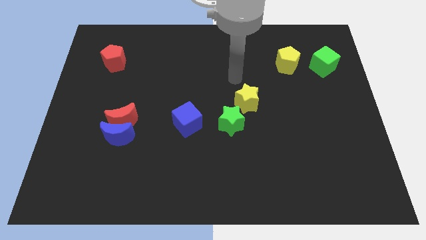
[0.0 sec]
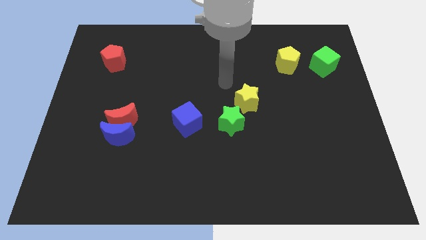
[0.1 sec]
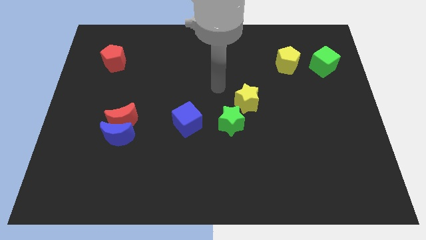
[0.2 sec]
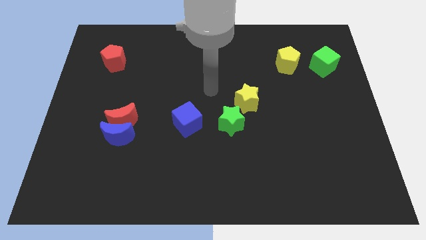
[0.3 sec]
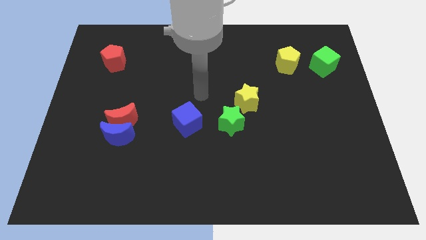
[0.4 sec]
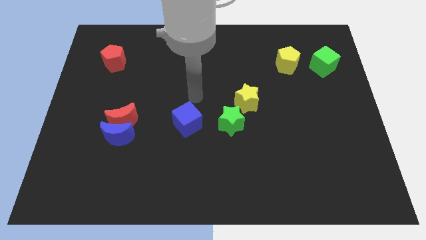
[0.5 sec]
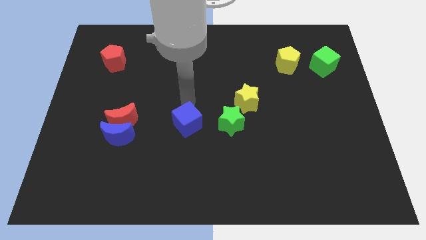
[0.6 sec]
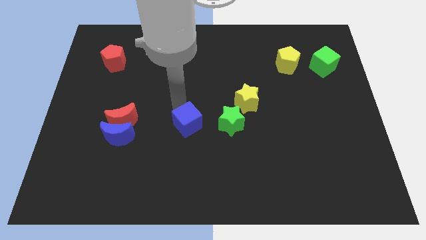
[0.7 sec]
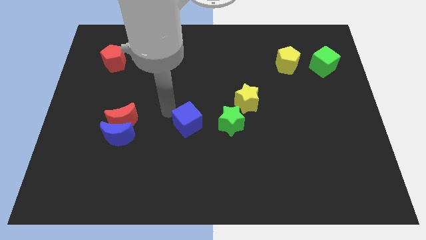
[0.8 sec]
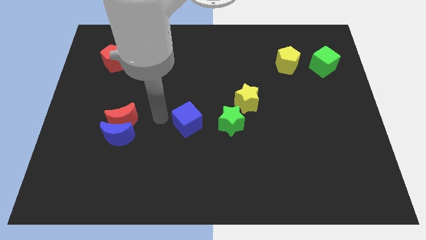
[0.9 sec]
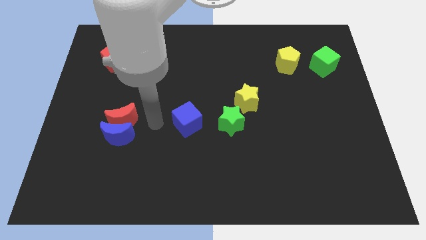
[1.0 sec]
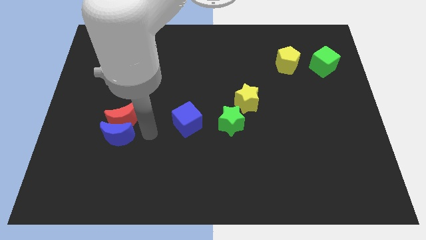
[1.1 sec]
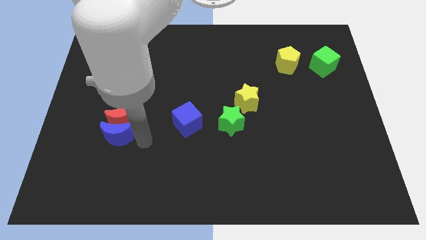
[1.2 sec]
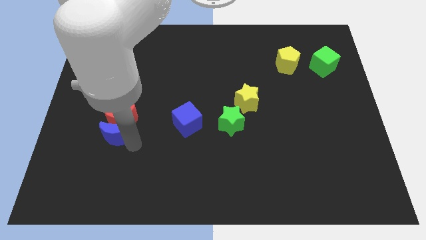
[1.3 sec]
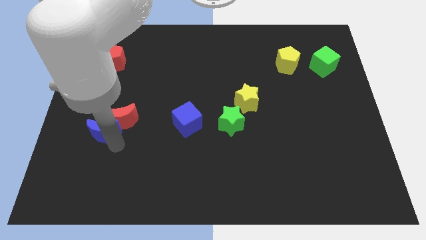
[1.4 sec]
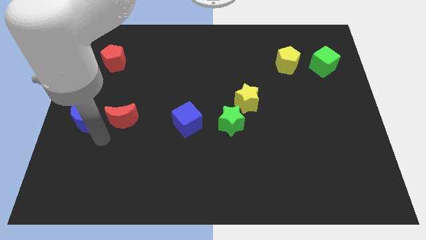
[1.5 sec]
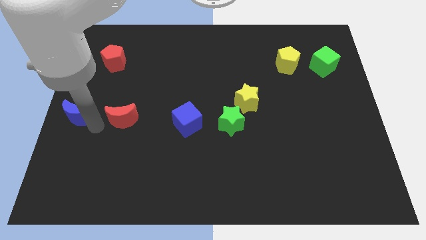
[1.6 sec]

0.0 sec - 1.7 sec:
move the red moon away from the blue moon

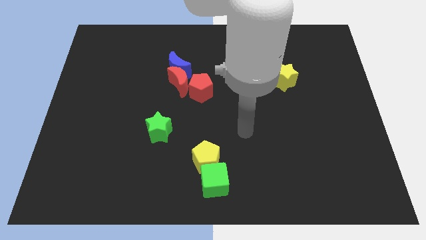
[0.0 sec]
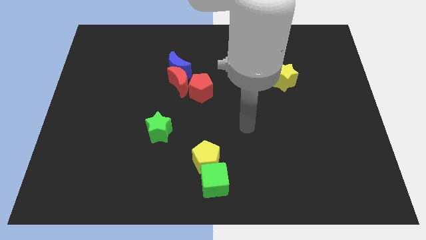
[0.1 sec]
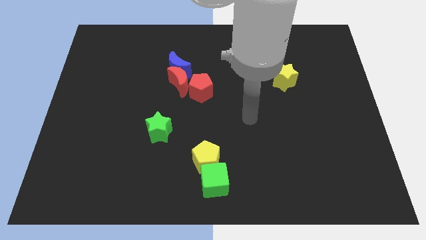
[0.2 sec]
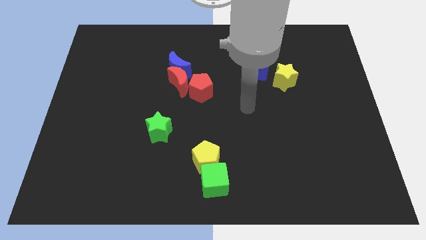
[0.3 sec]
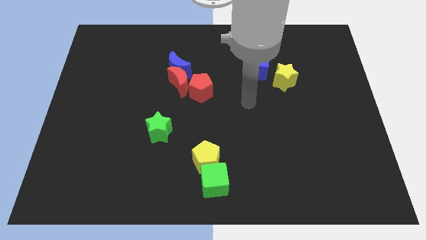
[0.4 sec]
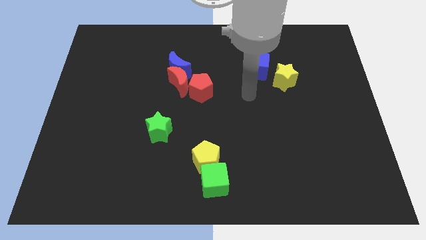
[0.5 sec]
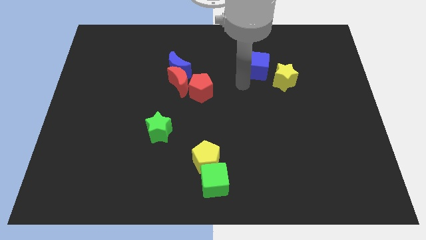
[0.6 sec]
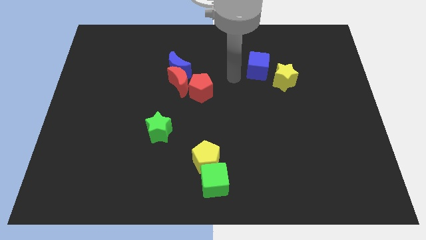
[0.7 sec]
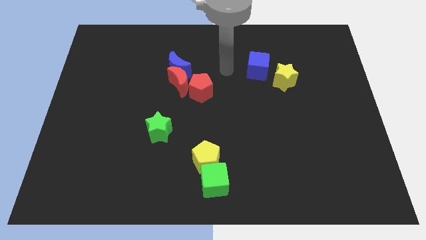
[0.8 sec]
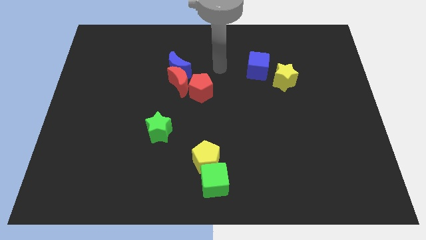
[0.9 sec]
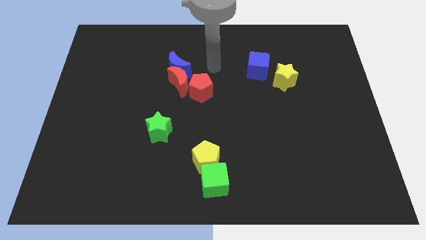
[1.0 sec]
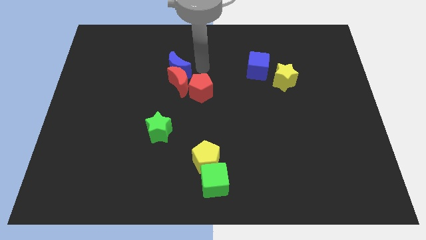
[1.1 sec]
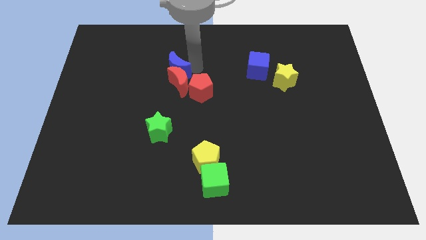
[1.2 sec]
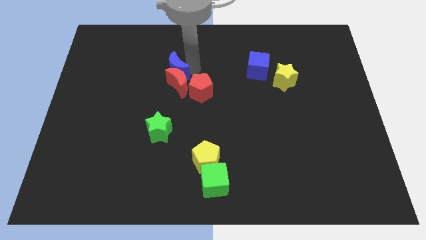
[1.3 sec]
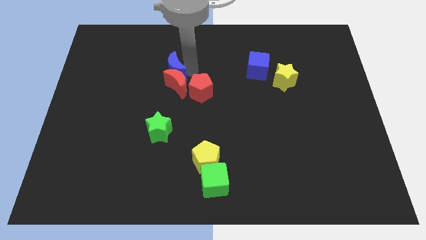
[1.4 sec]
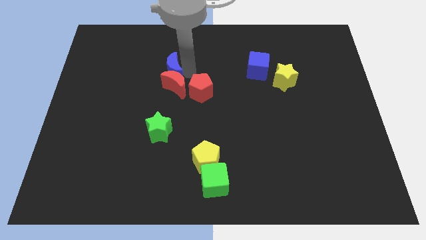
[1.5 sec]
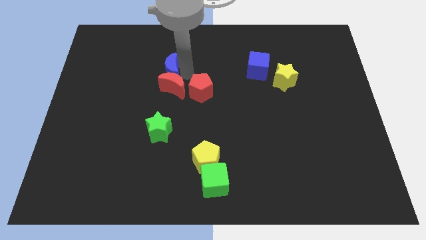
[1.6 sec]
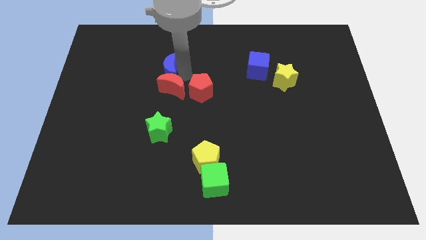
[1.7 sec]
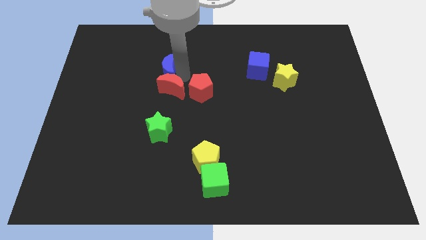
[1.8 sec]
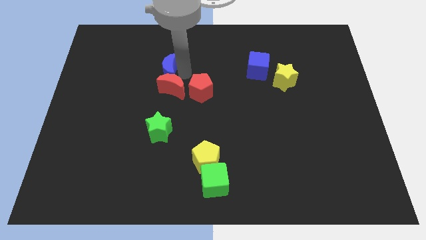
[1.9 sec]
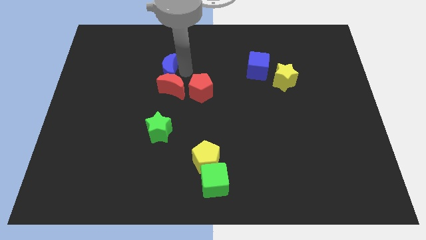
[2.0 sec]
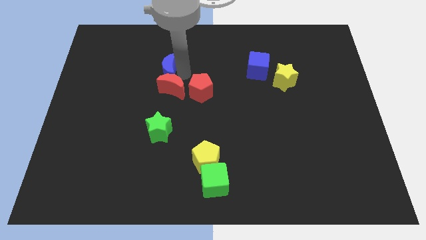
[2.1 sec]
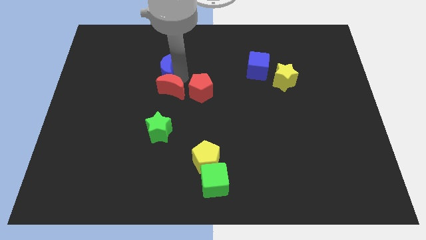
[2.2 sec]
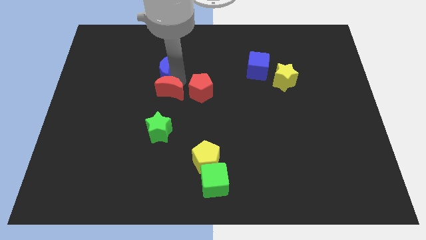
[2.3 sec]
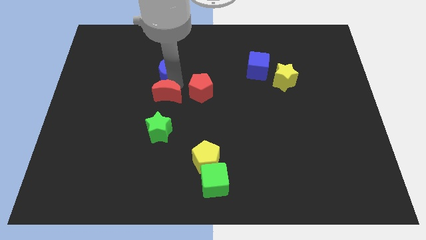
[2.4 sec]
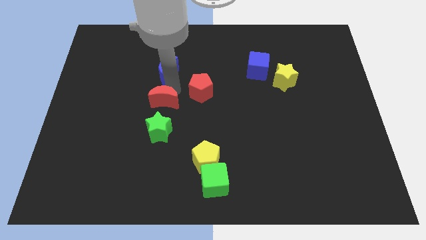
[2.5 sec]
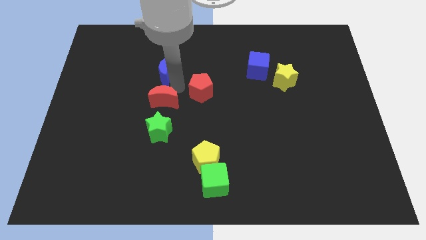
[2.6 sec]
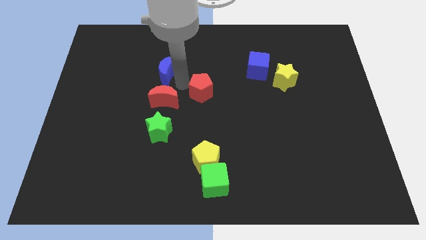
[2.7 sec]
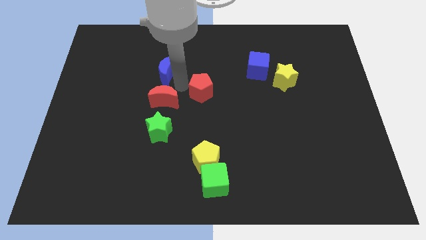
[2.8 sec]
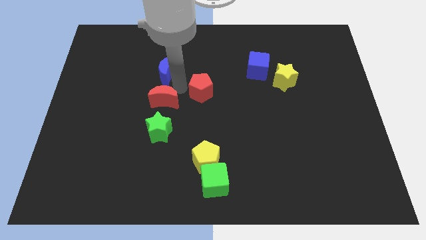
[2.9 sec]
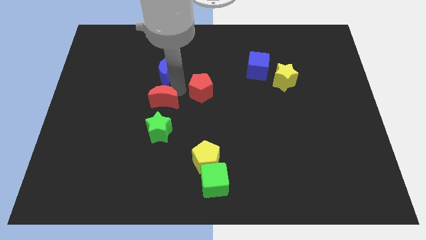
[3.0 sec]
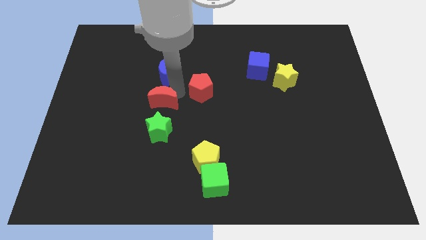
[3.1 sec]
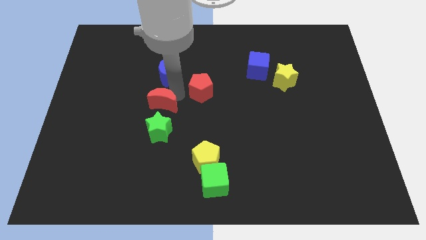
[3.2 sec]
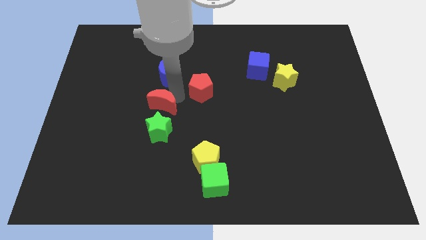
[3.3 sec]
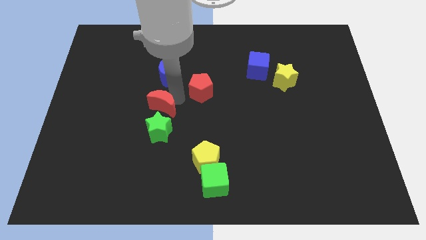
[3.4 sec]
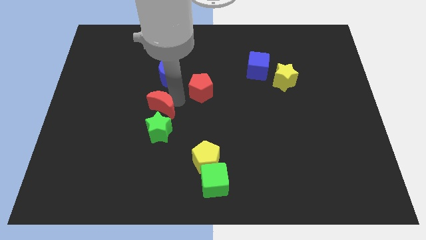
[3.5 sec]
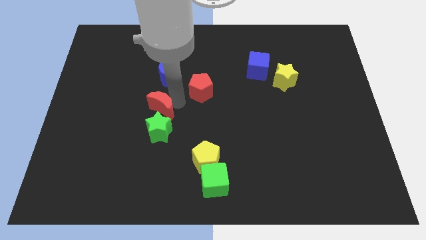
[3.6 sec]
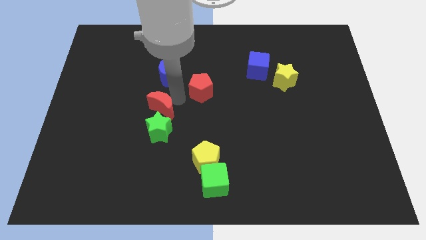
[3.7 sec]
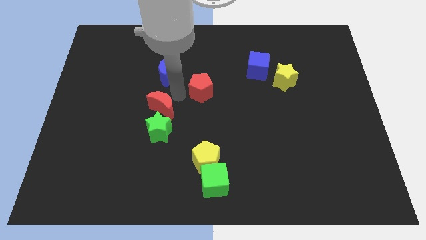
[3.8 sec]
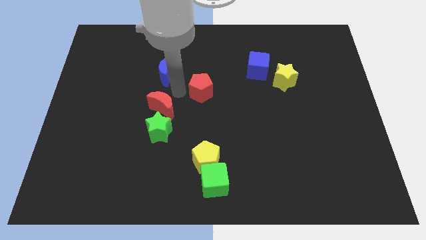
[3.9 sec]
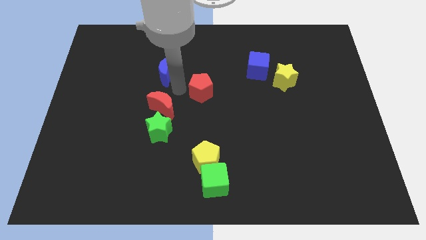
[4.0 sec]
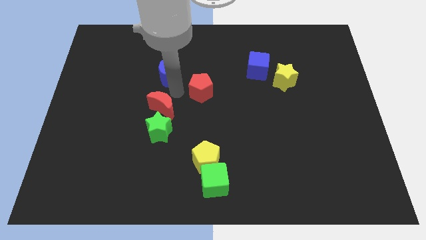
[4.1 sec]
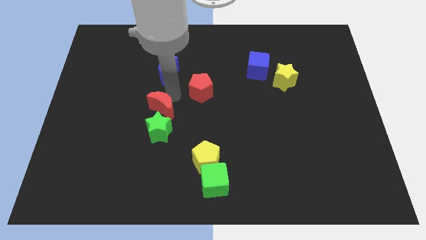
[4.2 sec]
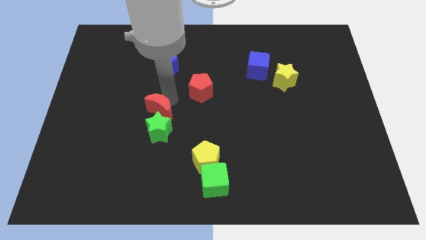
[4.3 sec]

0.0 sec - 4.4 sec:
move the red moon away from the blue moon and red pentagon

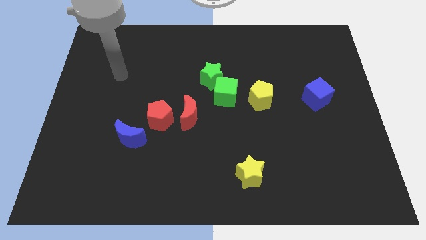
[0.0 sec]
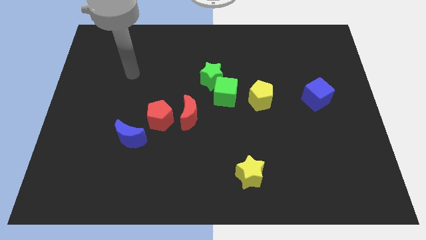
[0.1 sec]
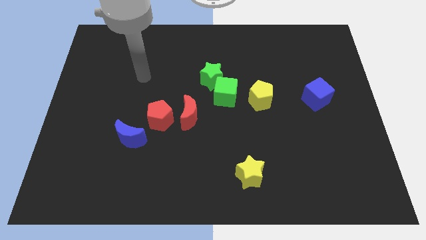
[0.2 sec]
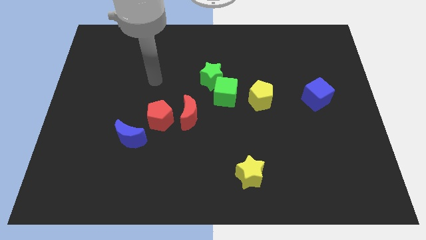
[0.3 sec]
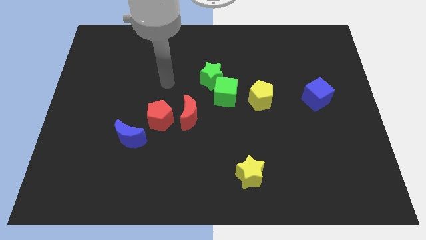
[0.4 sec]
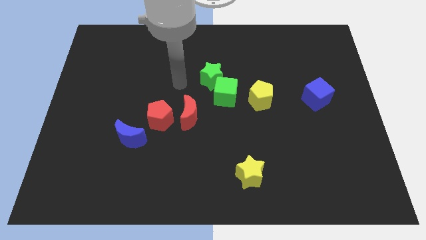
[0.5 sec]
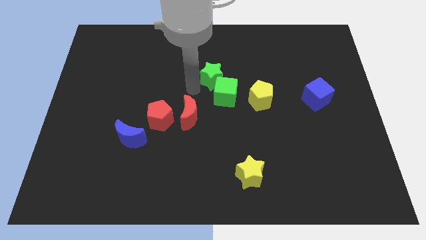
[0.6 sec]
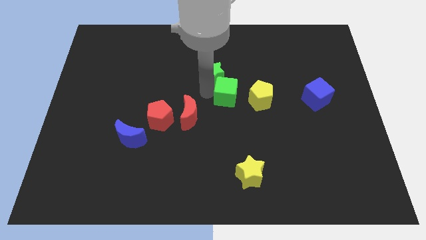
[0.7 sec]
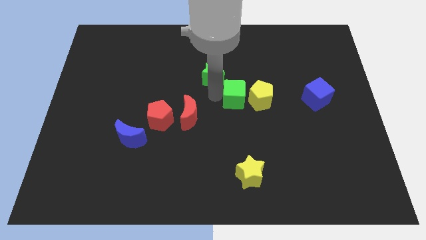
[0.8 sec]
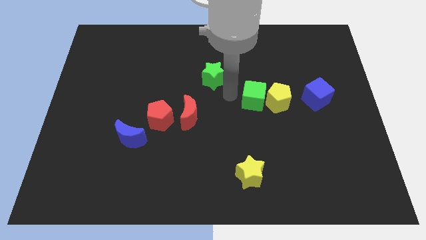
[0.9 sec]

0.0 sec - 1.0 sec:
move the green star away from the green cube

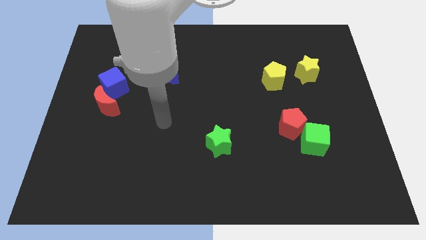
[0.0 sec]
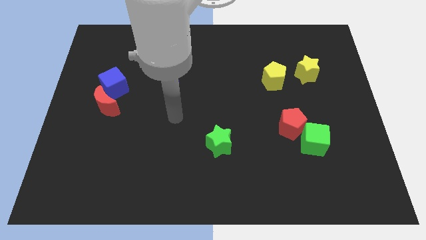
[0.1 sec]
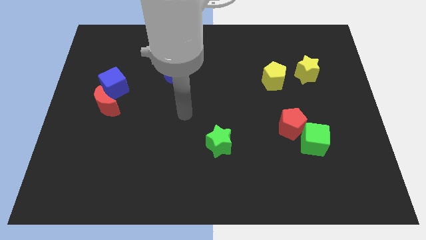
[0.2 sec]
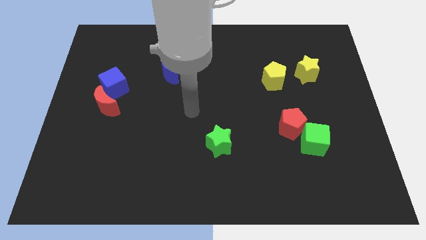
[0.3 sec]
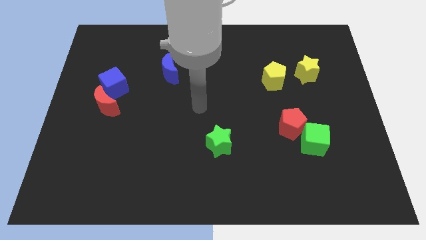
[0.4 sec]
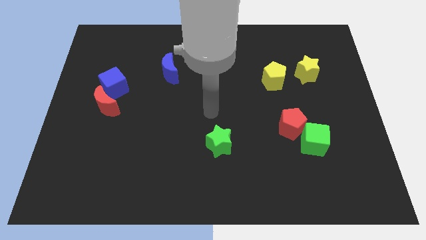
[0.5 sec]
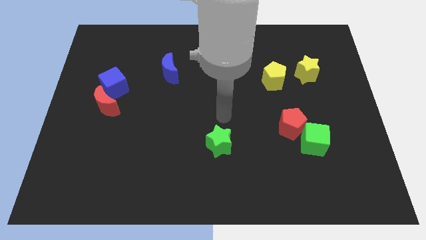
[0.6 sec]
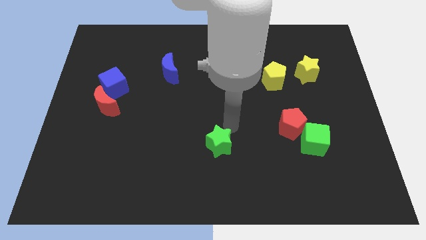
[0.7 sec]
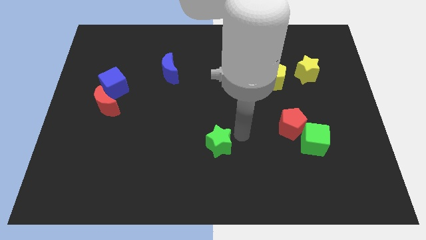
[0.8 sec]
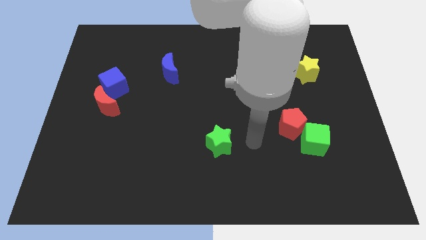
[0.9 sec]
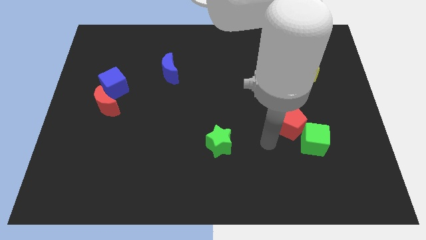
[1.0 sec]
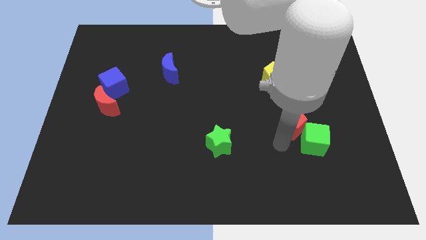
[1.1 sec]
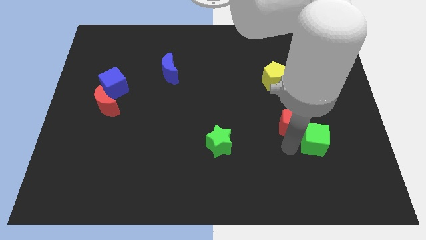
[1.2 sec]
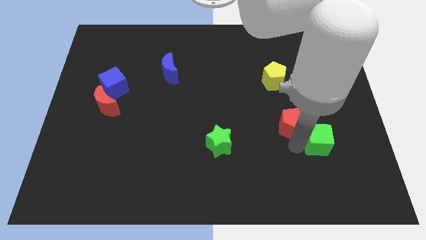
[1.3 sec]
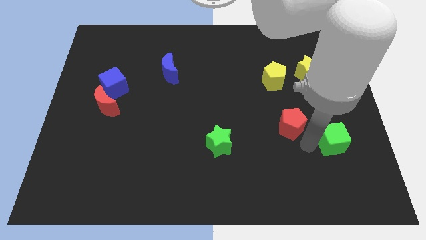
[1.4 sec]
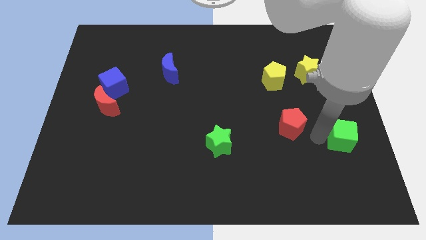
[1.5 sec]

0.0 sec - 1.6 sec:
pull the red pentagon apart from the green cube

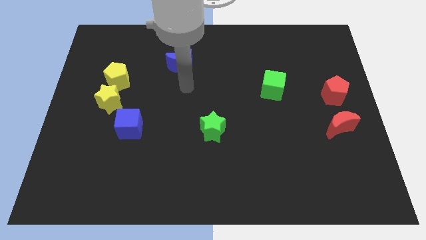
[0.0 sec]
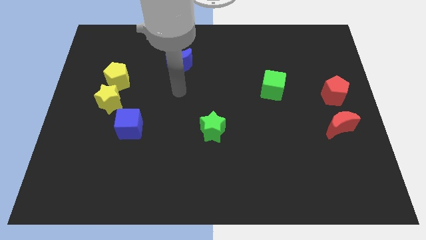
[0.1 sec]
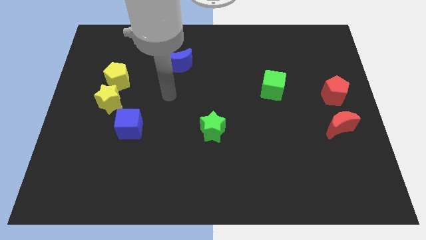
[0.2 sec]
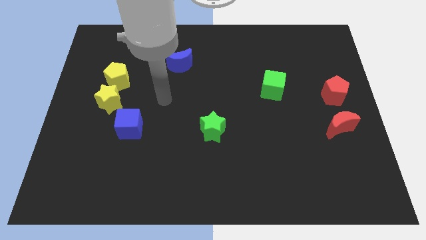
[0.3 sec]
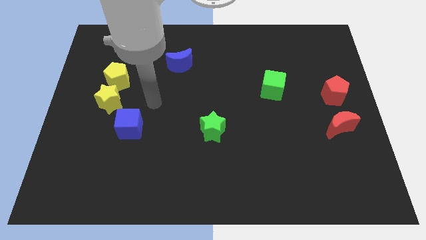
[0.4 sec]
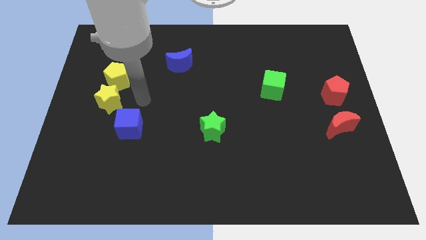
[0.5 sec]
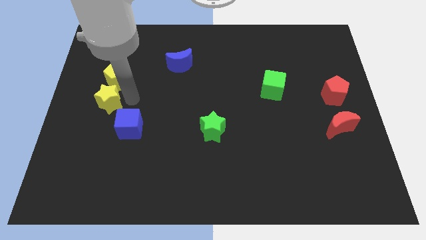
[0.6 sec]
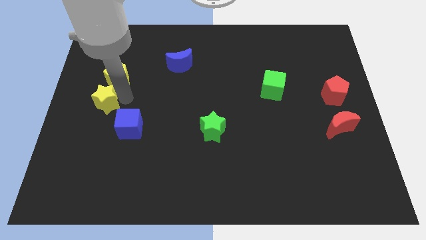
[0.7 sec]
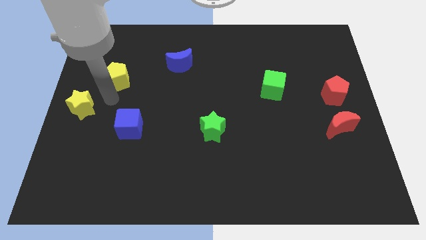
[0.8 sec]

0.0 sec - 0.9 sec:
pull the yellow pentagon apart from the yellow star
